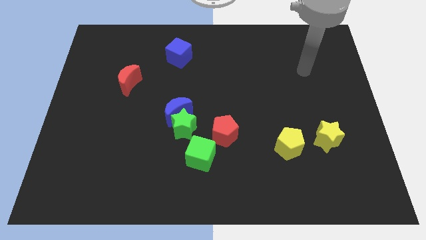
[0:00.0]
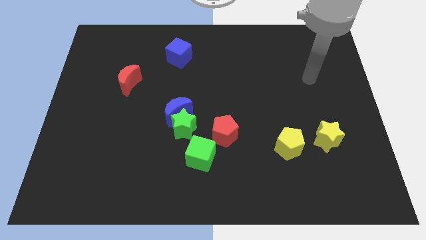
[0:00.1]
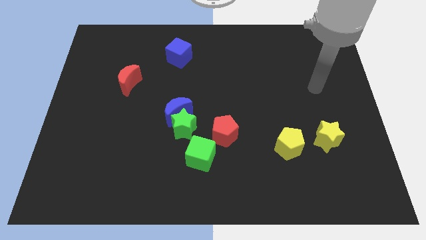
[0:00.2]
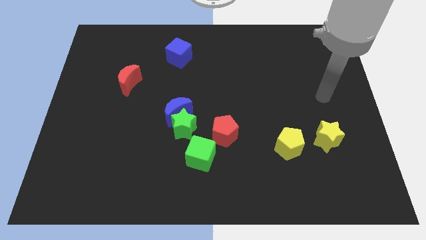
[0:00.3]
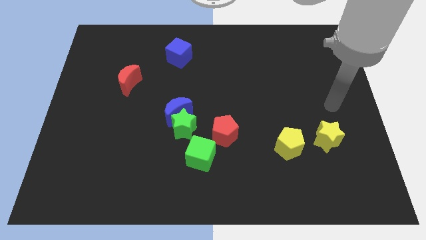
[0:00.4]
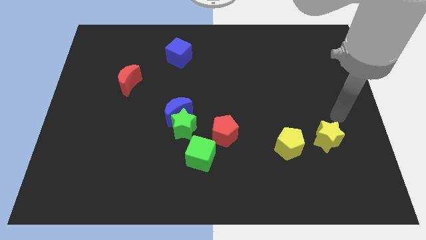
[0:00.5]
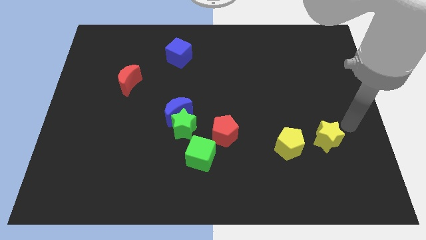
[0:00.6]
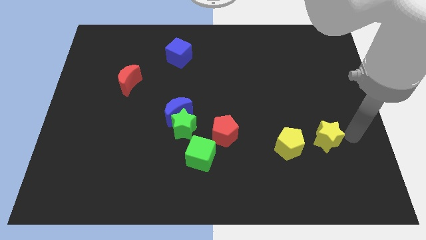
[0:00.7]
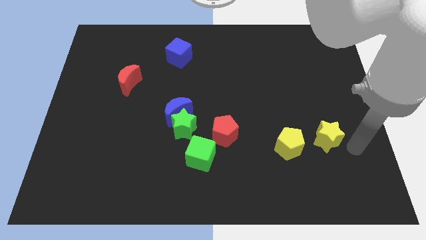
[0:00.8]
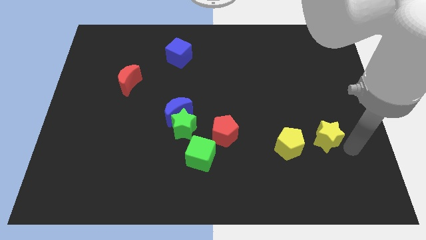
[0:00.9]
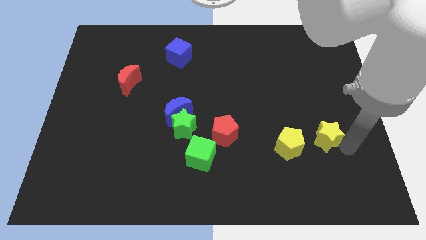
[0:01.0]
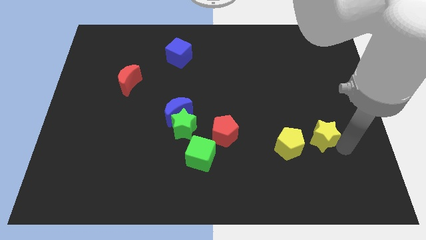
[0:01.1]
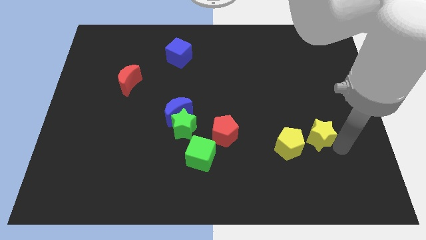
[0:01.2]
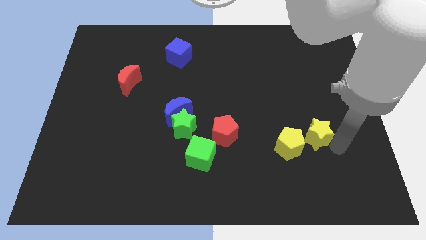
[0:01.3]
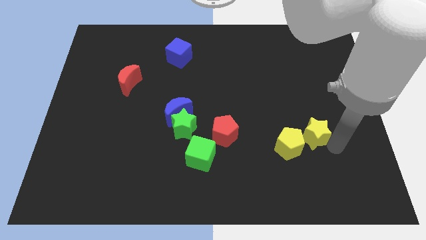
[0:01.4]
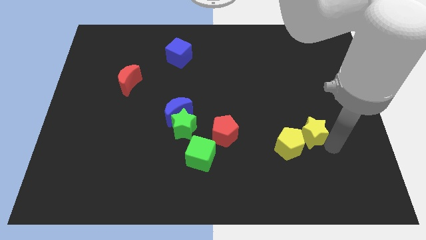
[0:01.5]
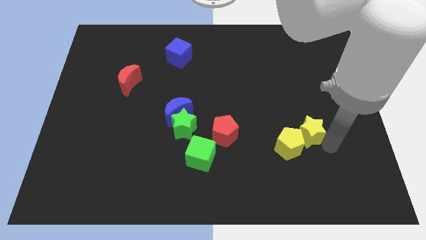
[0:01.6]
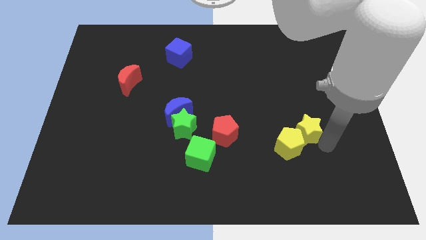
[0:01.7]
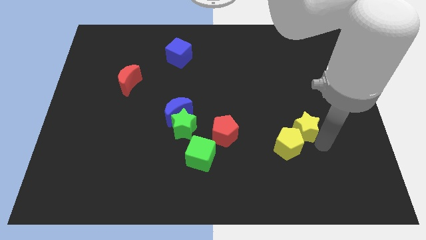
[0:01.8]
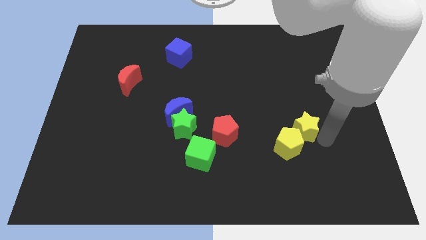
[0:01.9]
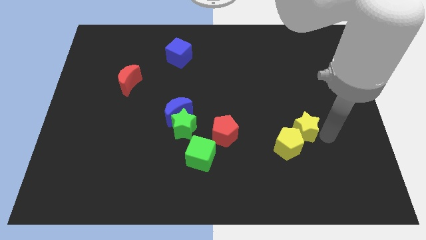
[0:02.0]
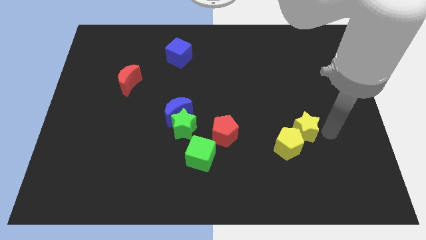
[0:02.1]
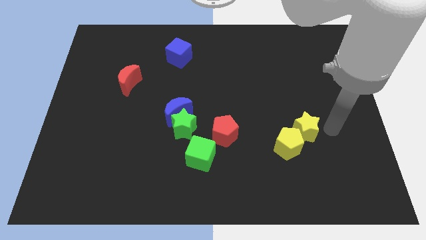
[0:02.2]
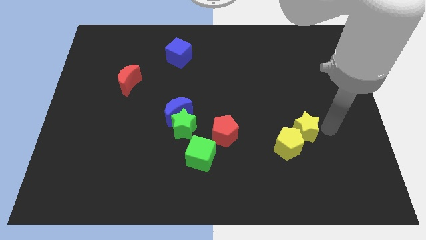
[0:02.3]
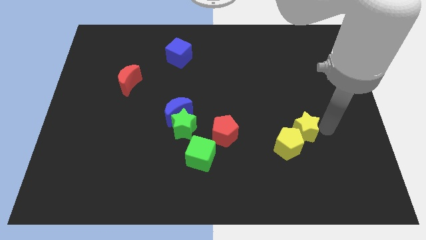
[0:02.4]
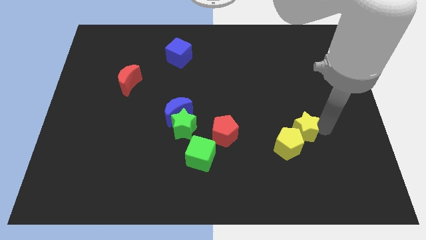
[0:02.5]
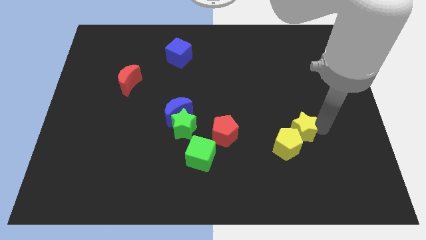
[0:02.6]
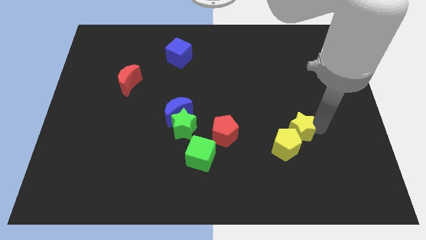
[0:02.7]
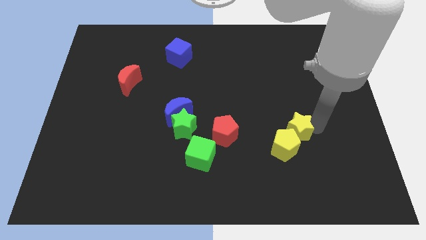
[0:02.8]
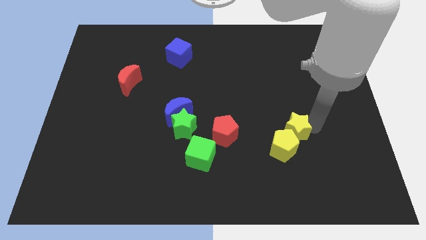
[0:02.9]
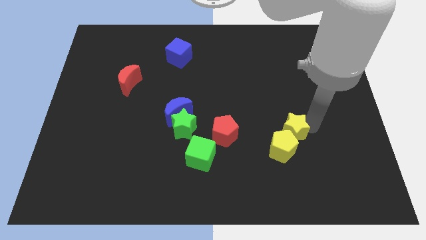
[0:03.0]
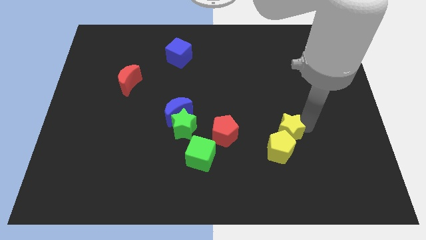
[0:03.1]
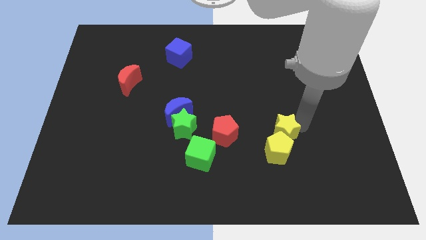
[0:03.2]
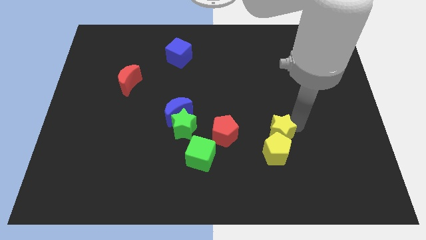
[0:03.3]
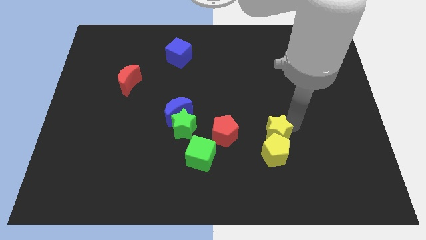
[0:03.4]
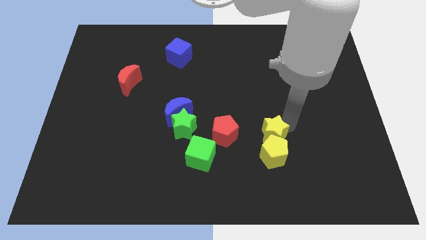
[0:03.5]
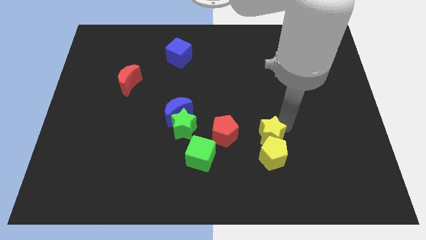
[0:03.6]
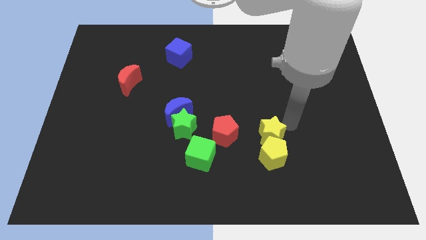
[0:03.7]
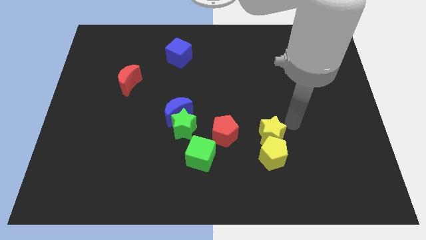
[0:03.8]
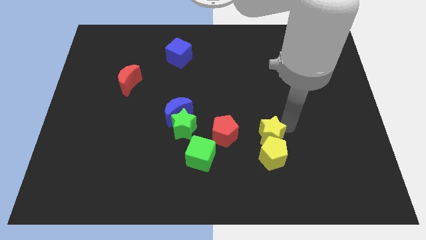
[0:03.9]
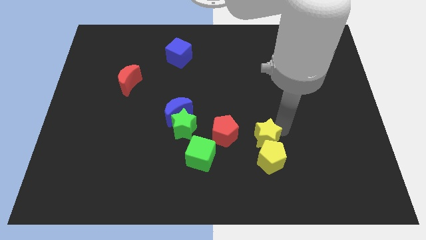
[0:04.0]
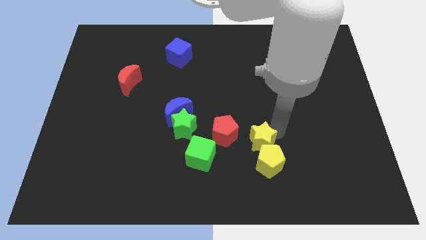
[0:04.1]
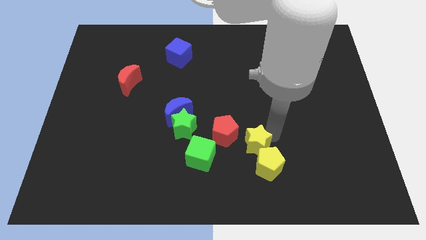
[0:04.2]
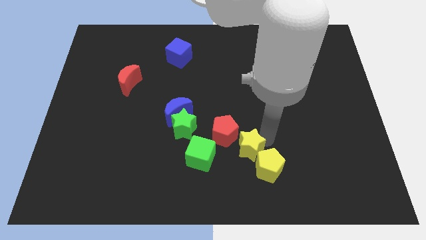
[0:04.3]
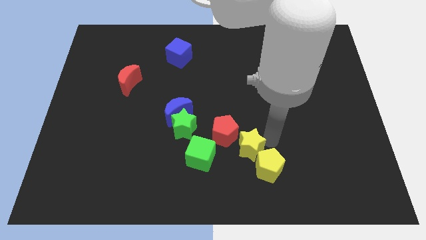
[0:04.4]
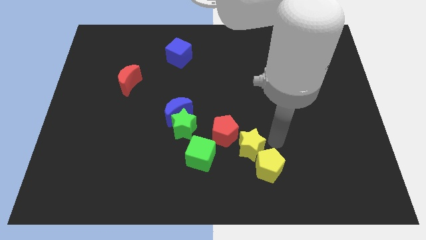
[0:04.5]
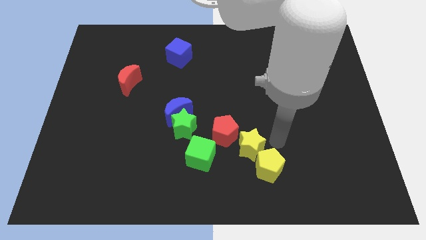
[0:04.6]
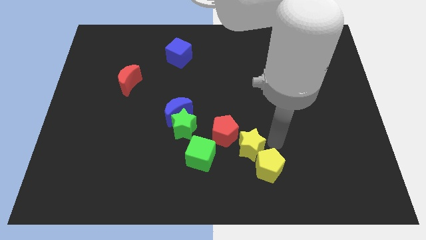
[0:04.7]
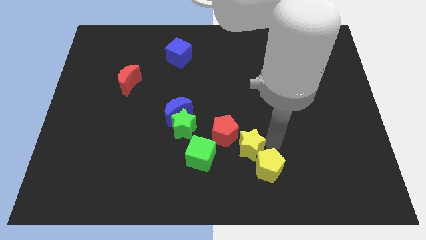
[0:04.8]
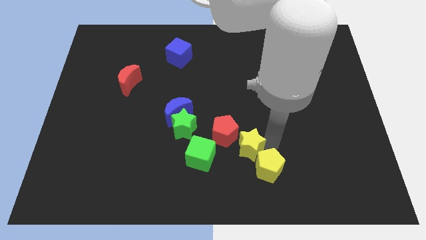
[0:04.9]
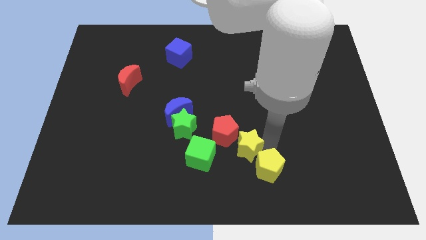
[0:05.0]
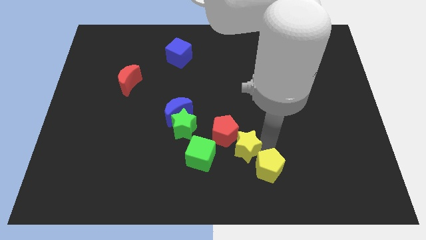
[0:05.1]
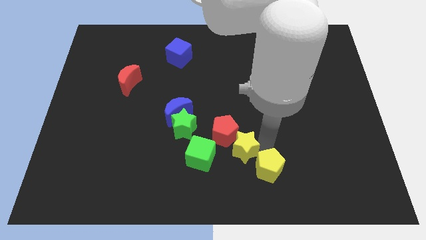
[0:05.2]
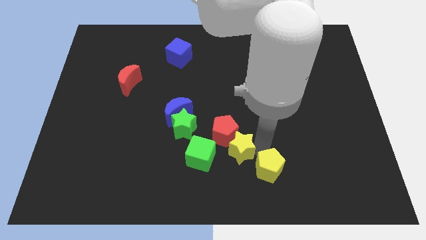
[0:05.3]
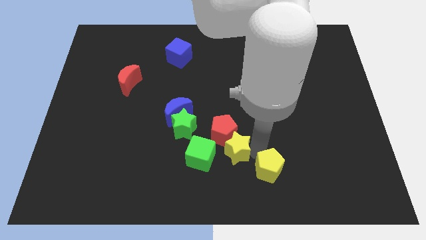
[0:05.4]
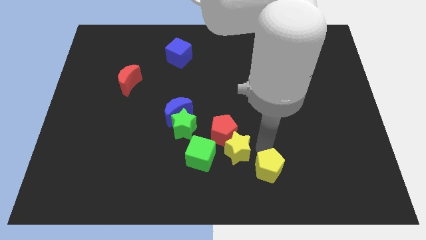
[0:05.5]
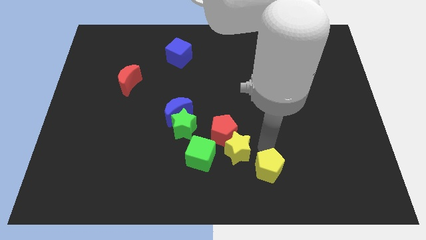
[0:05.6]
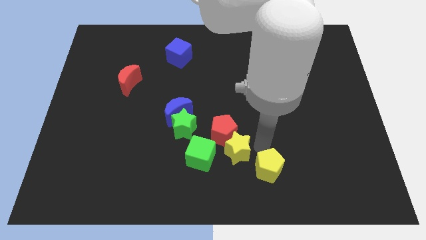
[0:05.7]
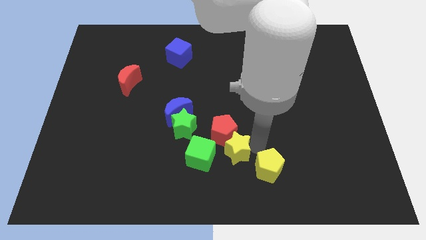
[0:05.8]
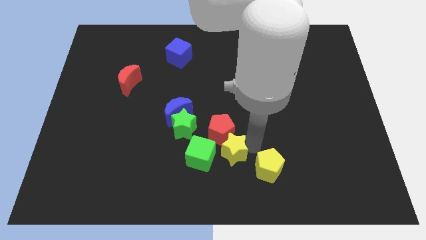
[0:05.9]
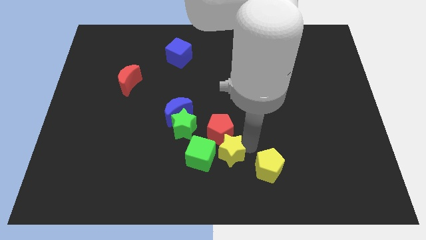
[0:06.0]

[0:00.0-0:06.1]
put the yellow star to the green cube

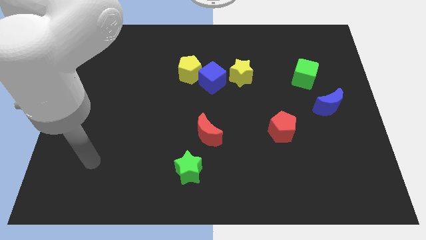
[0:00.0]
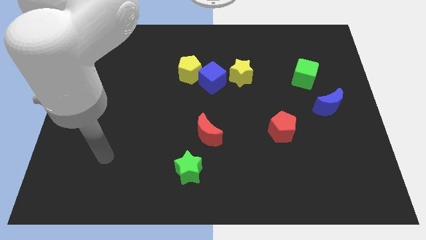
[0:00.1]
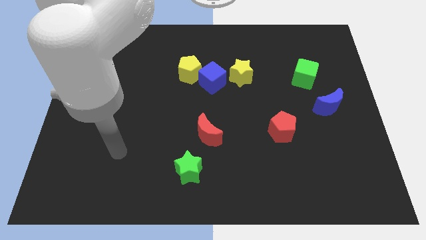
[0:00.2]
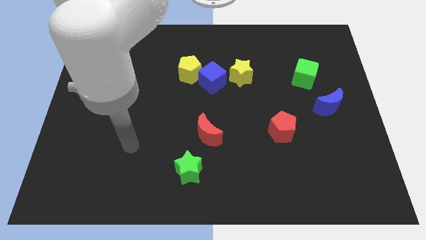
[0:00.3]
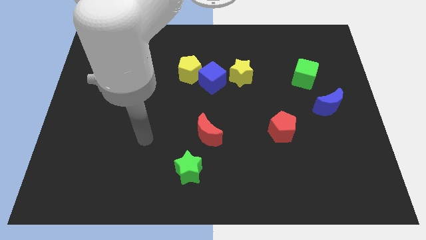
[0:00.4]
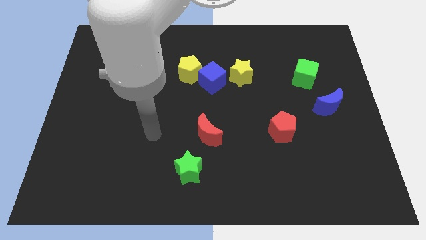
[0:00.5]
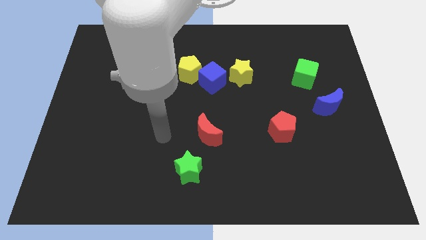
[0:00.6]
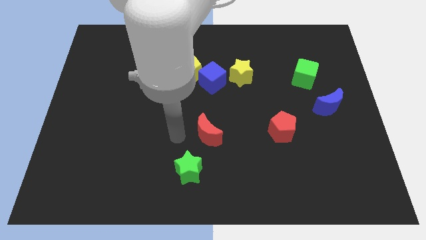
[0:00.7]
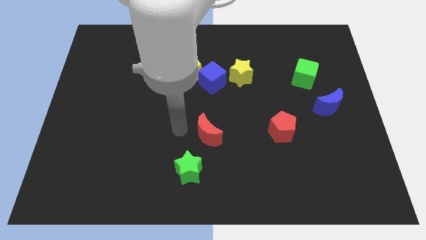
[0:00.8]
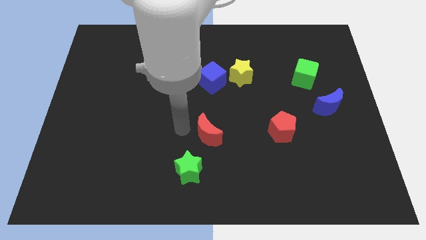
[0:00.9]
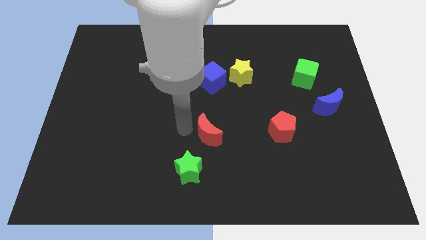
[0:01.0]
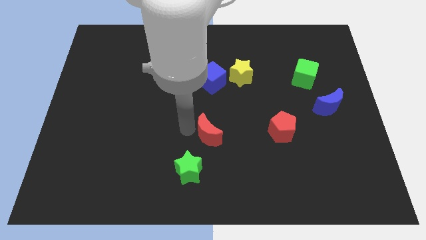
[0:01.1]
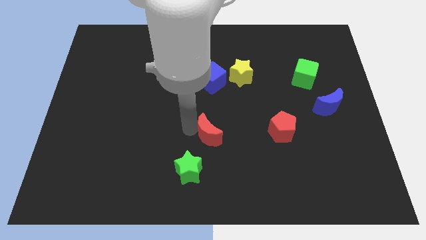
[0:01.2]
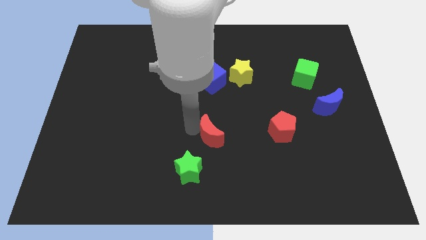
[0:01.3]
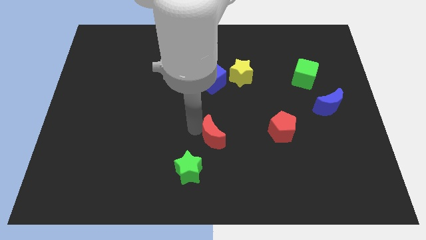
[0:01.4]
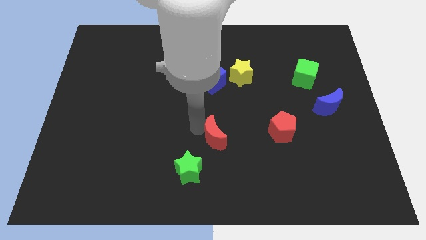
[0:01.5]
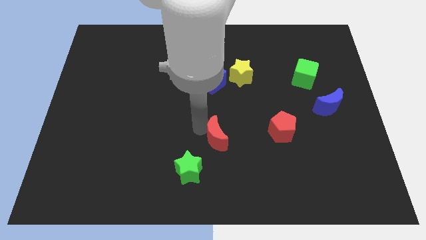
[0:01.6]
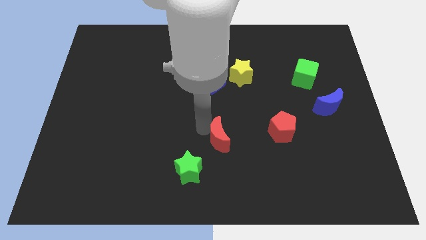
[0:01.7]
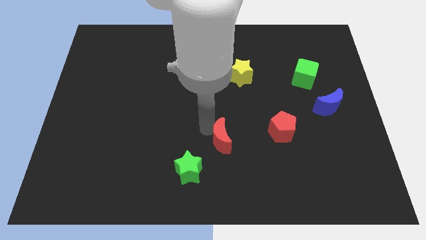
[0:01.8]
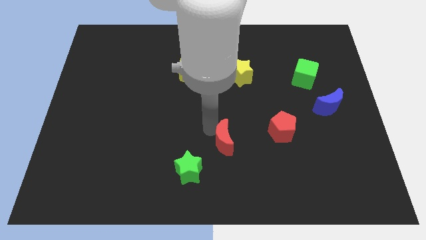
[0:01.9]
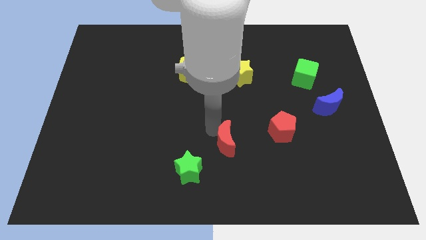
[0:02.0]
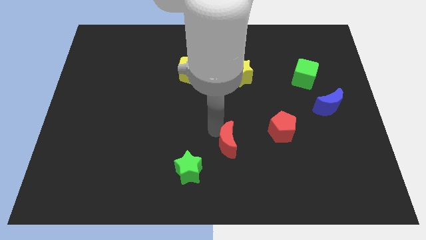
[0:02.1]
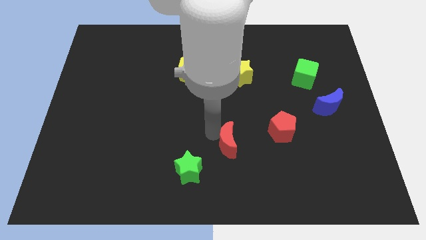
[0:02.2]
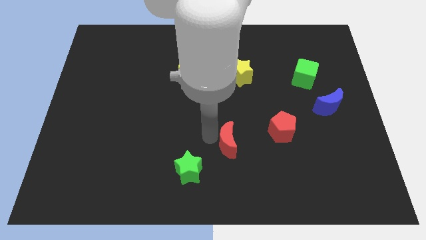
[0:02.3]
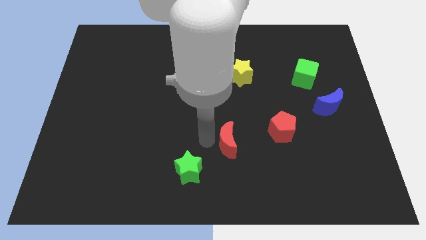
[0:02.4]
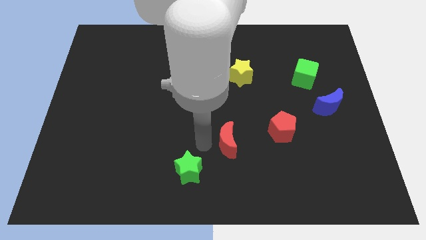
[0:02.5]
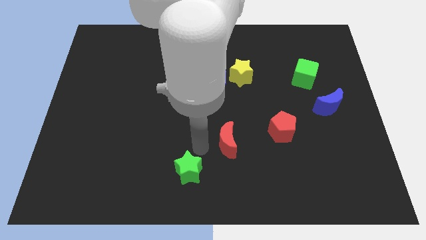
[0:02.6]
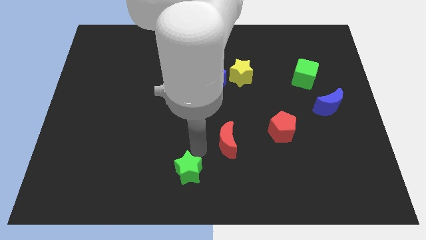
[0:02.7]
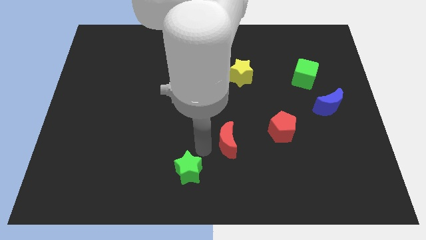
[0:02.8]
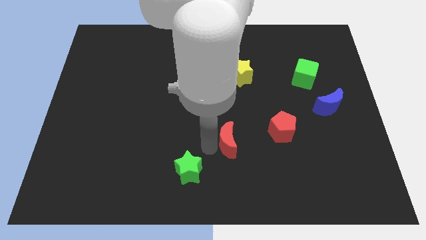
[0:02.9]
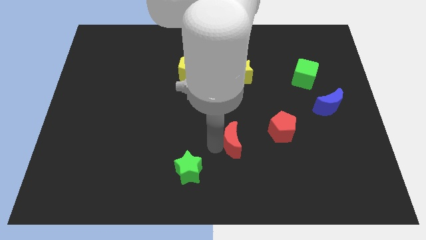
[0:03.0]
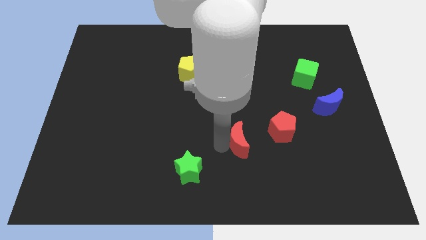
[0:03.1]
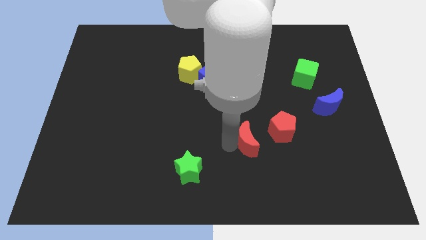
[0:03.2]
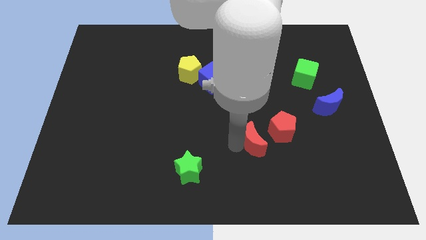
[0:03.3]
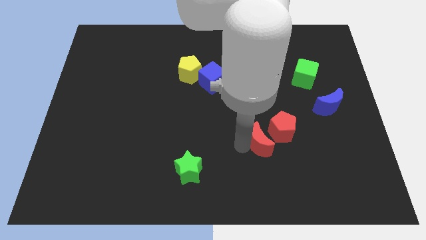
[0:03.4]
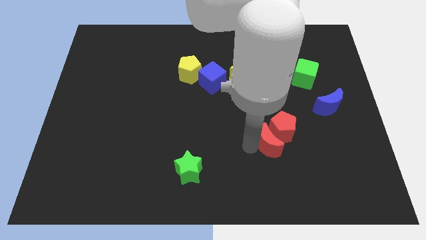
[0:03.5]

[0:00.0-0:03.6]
slide the red moon to the red pentagon
